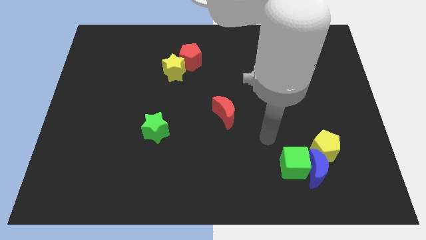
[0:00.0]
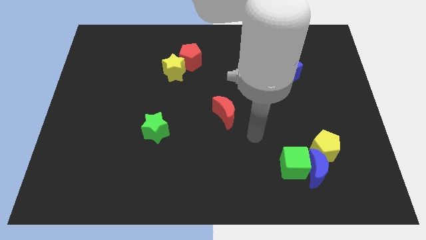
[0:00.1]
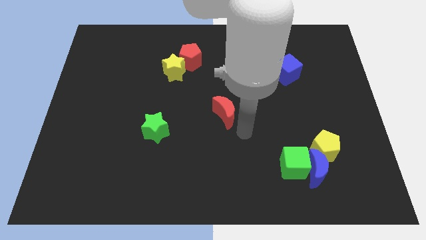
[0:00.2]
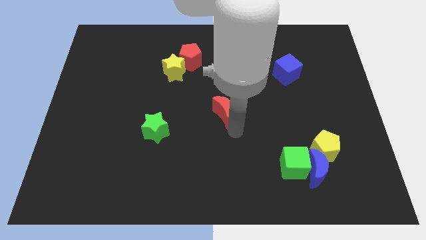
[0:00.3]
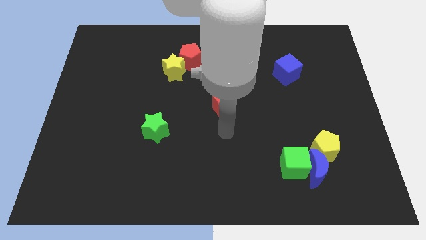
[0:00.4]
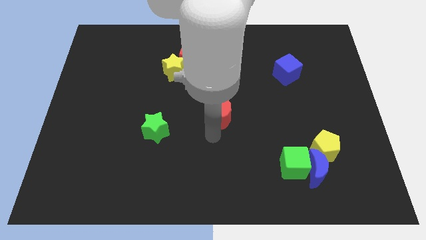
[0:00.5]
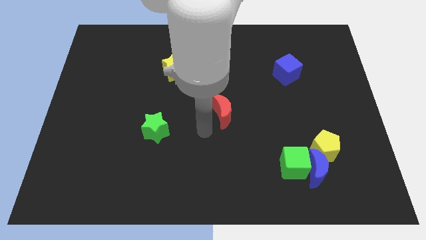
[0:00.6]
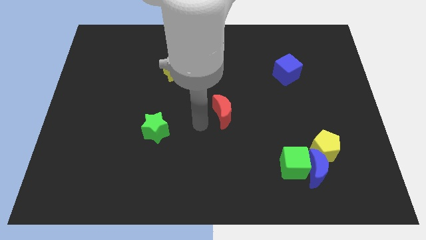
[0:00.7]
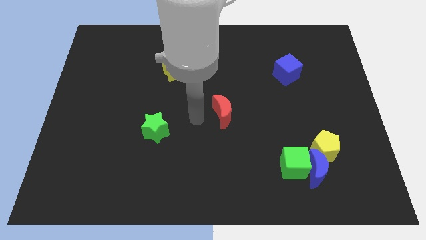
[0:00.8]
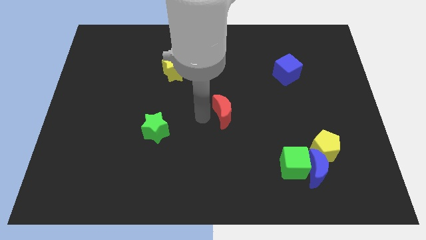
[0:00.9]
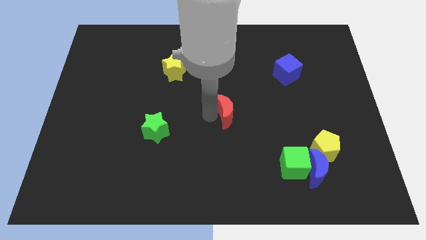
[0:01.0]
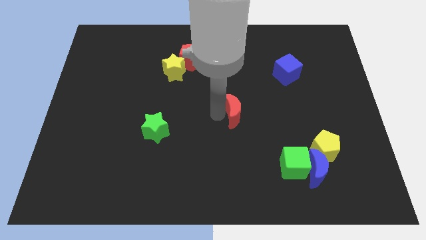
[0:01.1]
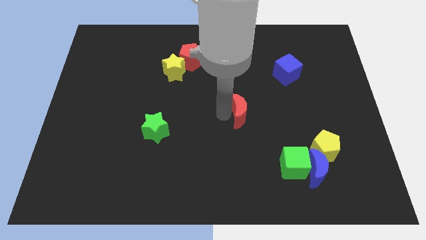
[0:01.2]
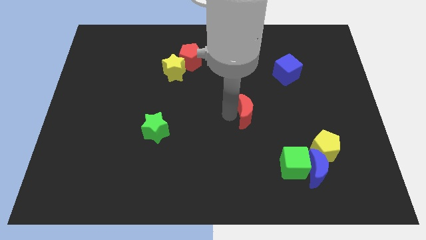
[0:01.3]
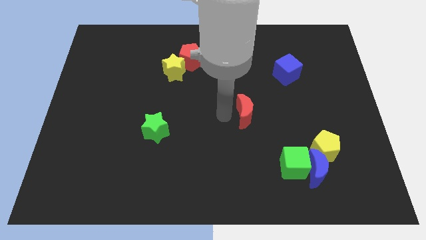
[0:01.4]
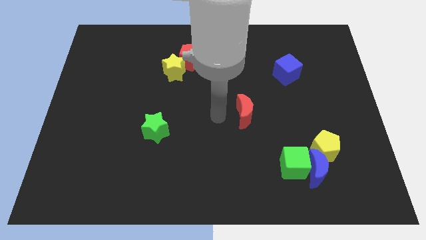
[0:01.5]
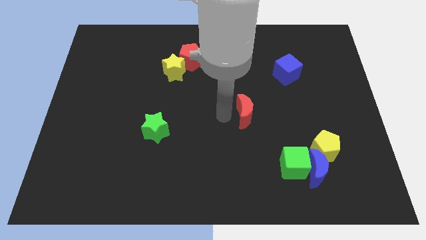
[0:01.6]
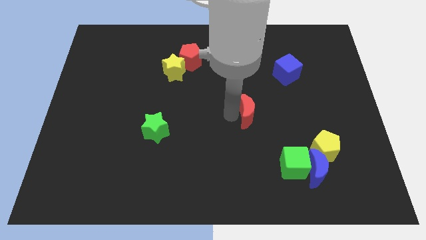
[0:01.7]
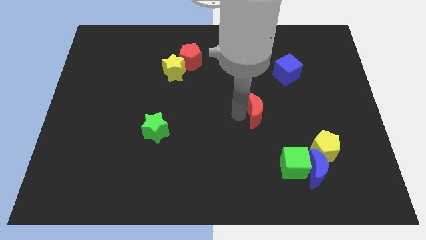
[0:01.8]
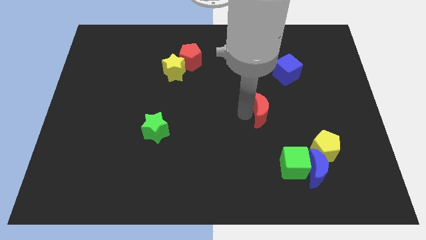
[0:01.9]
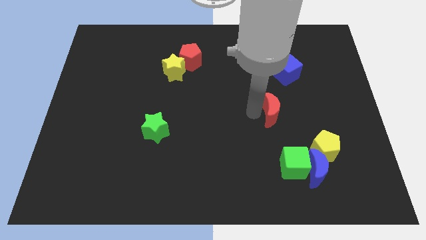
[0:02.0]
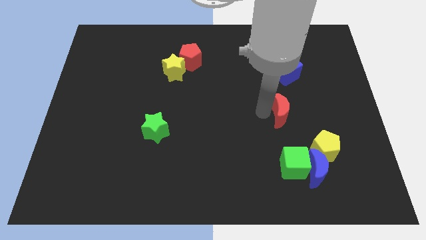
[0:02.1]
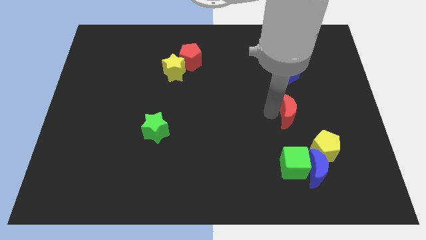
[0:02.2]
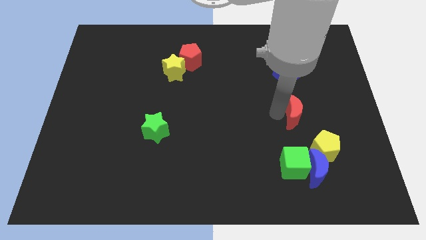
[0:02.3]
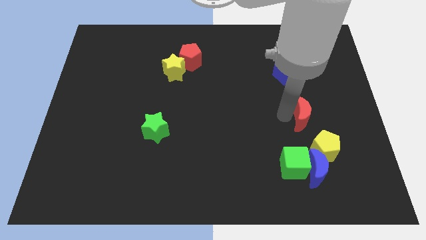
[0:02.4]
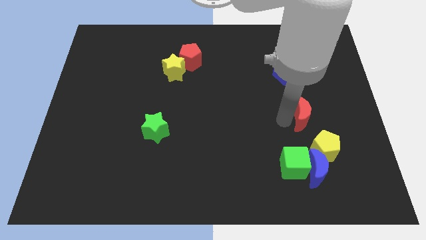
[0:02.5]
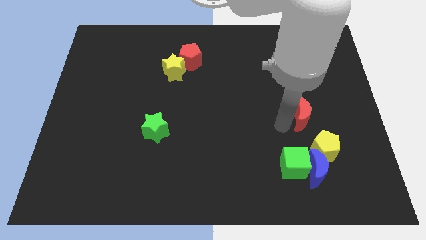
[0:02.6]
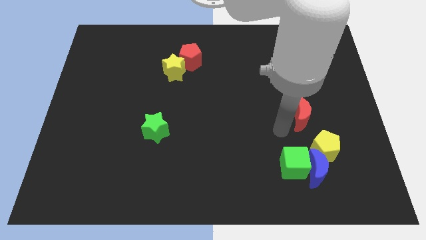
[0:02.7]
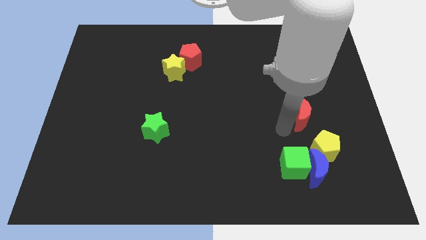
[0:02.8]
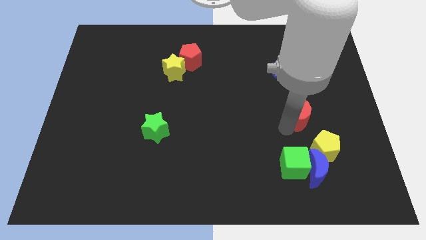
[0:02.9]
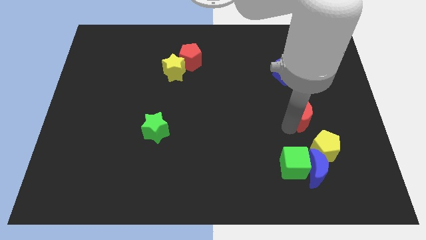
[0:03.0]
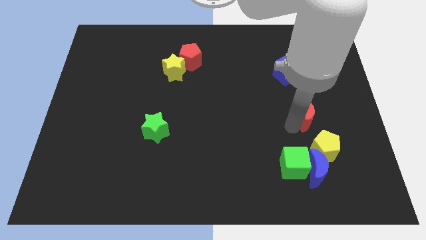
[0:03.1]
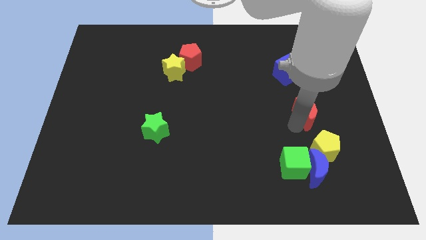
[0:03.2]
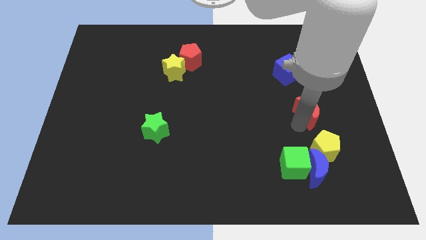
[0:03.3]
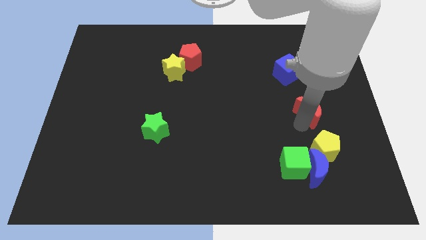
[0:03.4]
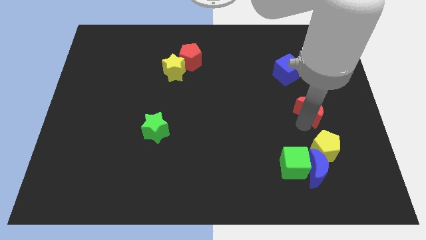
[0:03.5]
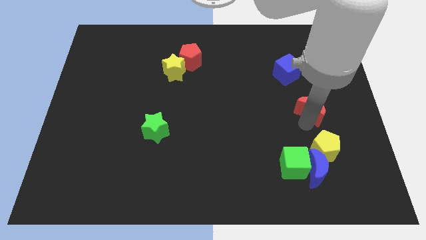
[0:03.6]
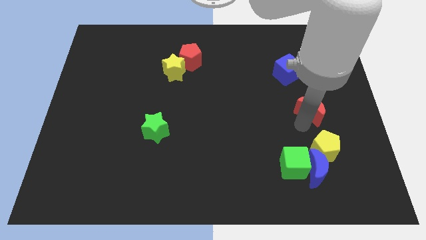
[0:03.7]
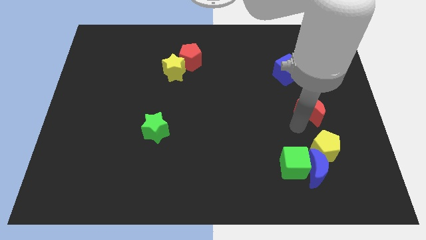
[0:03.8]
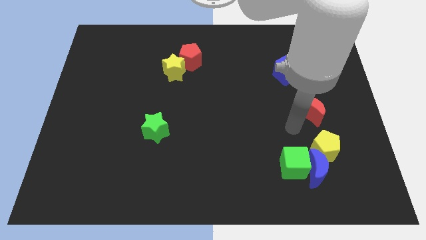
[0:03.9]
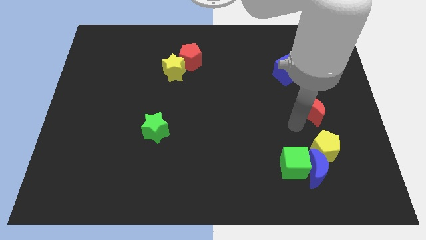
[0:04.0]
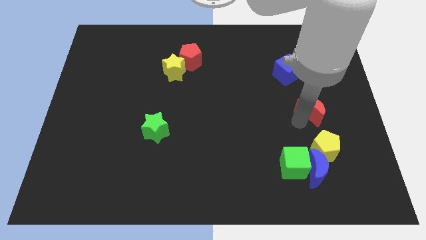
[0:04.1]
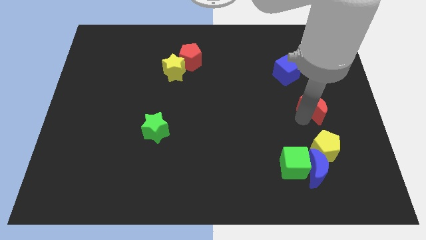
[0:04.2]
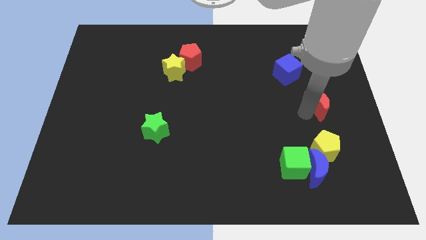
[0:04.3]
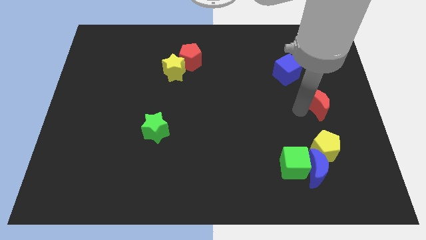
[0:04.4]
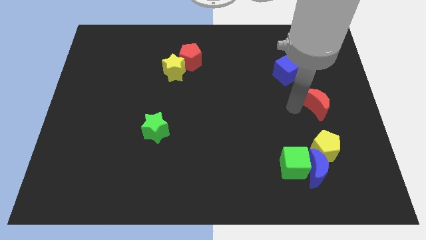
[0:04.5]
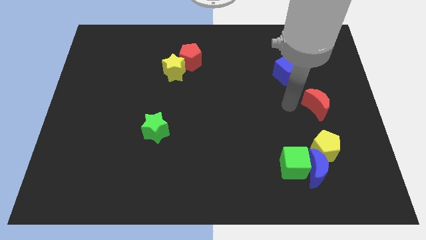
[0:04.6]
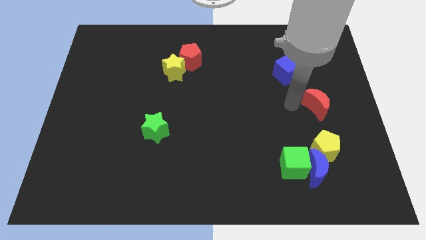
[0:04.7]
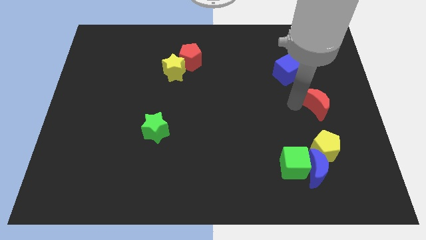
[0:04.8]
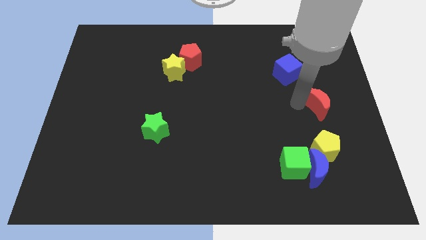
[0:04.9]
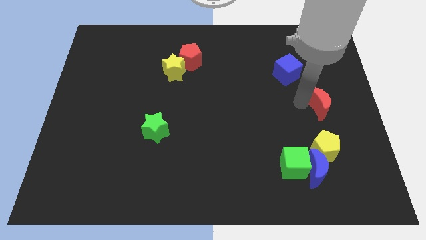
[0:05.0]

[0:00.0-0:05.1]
push the red moon to the center right

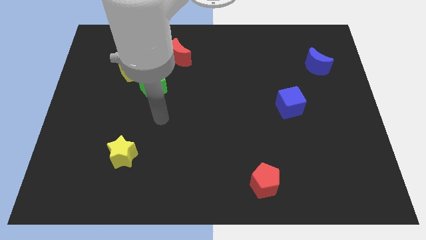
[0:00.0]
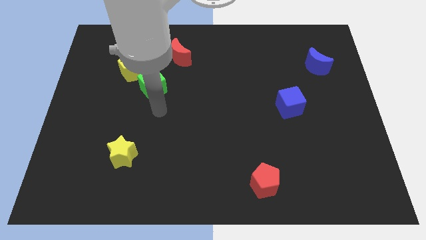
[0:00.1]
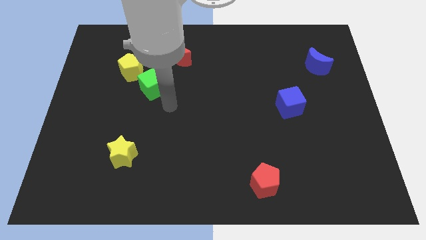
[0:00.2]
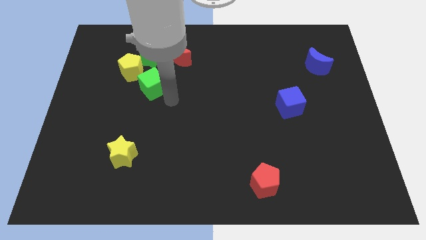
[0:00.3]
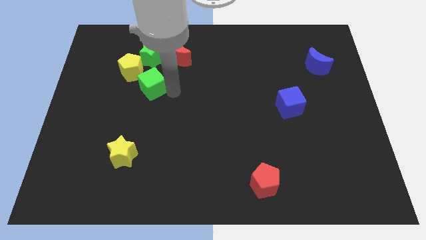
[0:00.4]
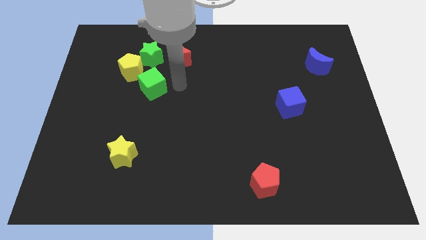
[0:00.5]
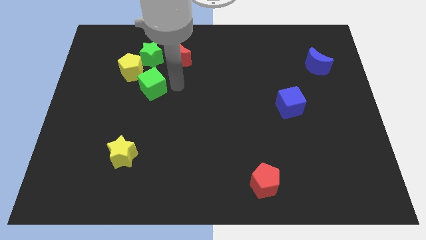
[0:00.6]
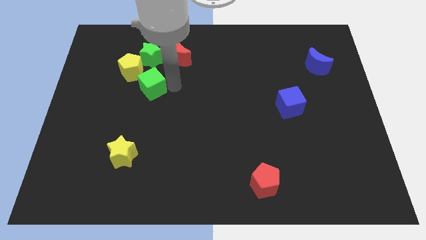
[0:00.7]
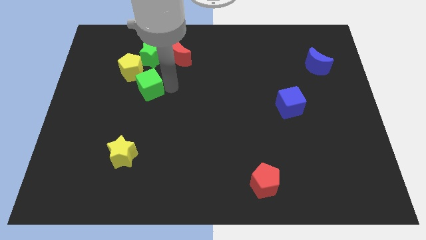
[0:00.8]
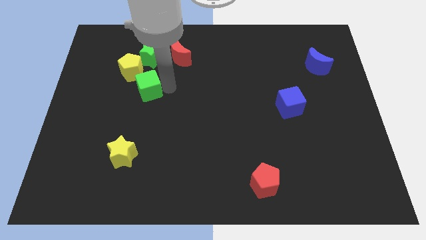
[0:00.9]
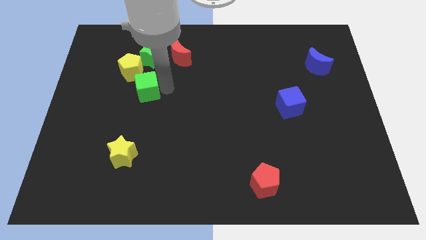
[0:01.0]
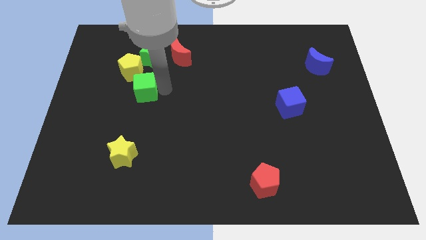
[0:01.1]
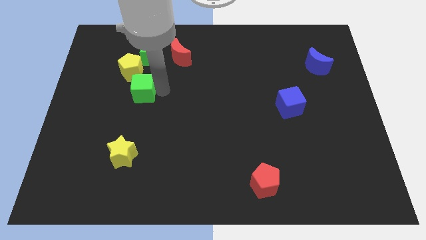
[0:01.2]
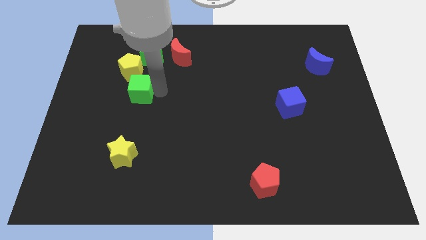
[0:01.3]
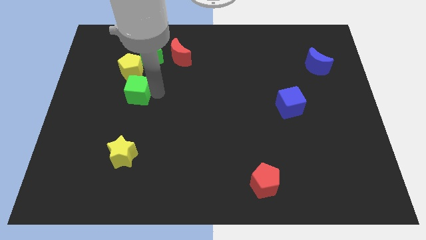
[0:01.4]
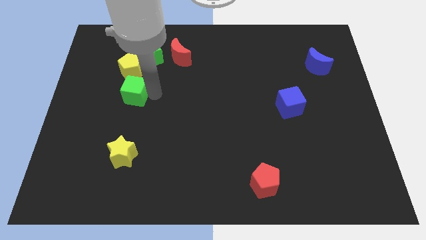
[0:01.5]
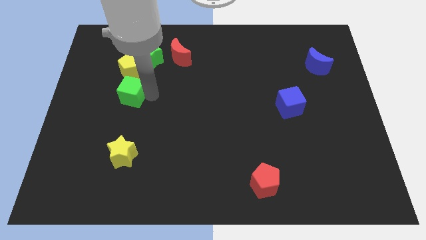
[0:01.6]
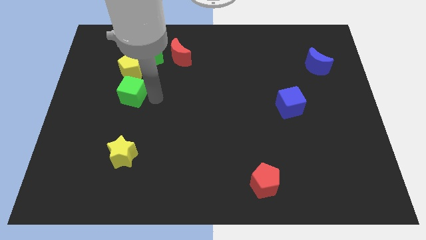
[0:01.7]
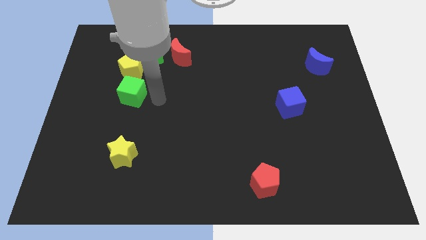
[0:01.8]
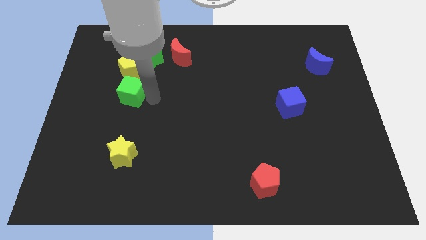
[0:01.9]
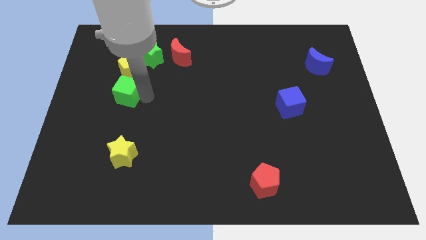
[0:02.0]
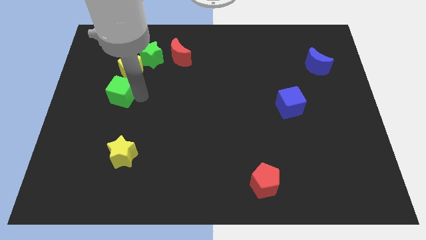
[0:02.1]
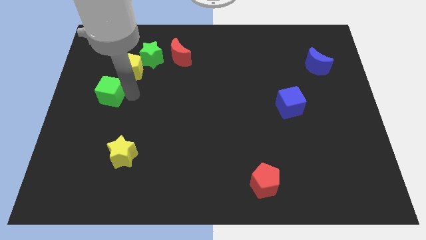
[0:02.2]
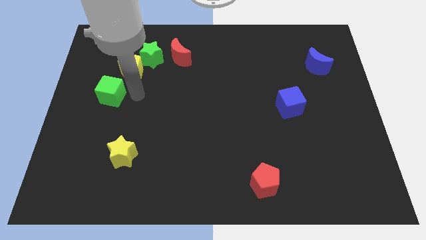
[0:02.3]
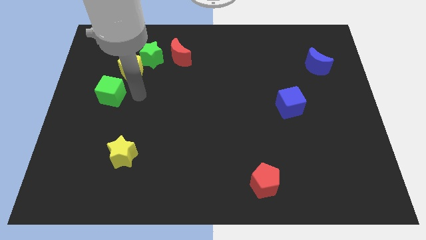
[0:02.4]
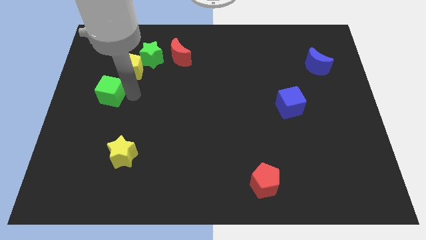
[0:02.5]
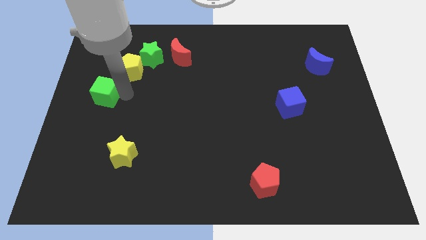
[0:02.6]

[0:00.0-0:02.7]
push the green cube to the center left
